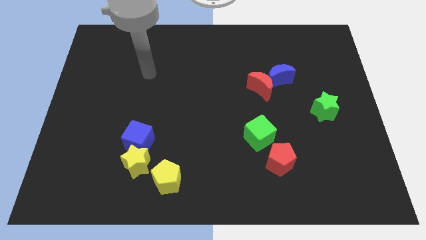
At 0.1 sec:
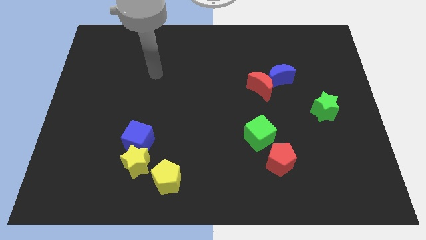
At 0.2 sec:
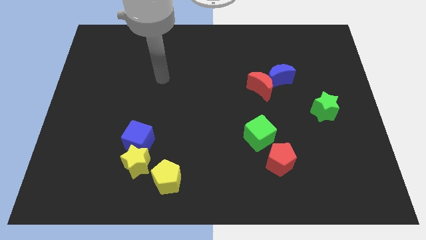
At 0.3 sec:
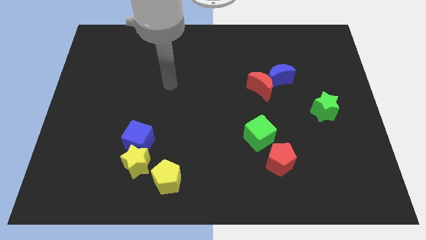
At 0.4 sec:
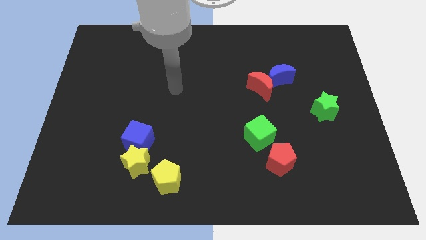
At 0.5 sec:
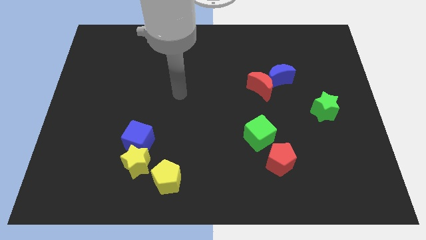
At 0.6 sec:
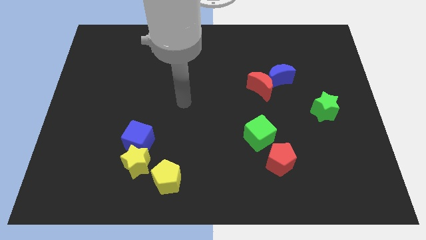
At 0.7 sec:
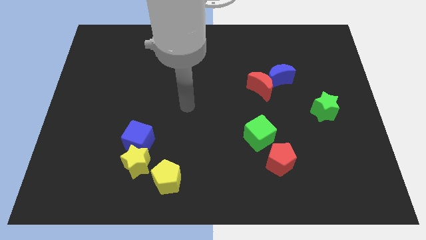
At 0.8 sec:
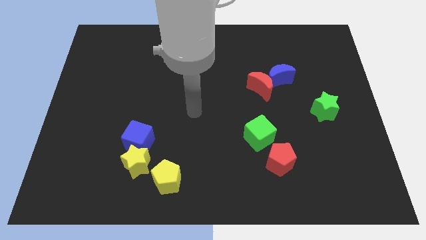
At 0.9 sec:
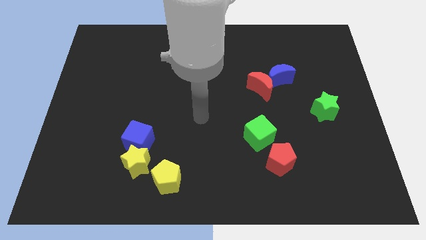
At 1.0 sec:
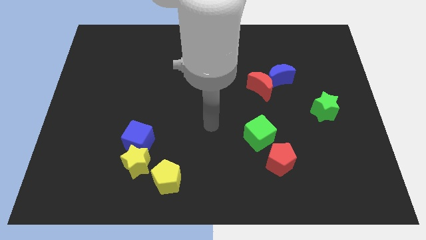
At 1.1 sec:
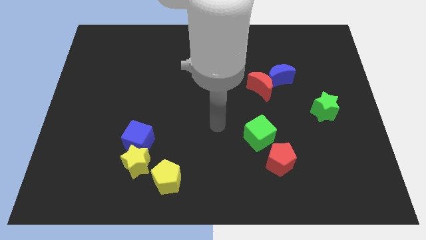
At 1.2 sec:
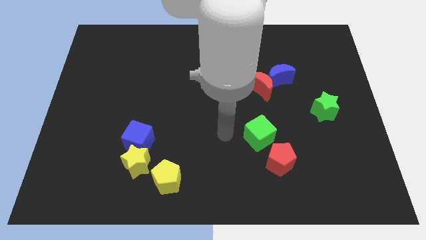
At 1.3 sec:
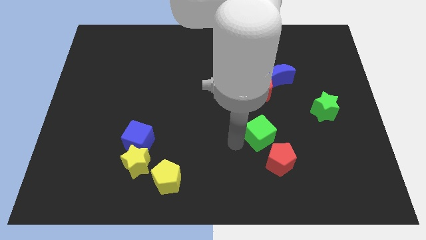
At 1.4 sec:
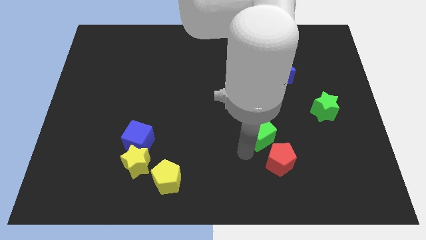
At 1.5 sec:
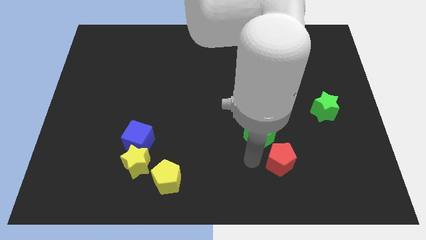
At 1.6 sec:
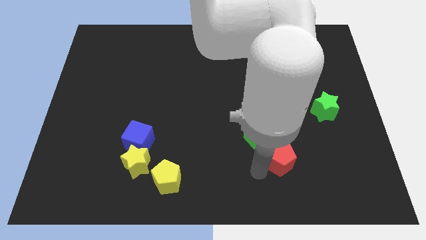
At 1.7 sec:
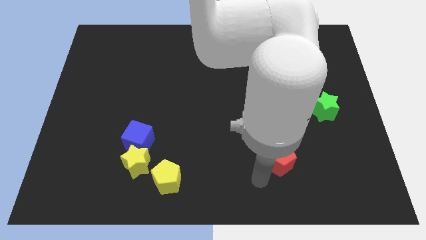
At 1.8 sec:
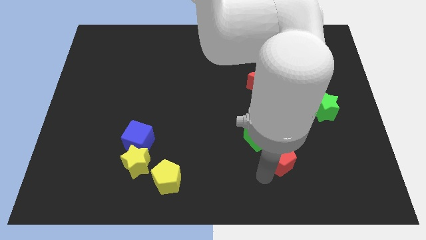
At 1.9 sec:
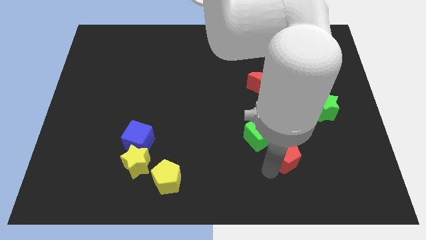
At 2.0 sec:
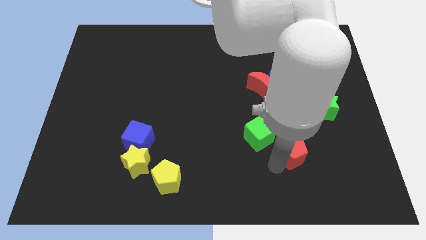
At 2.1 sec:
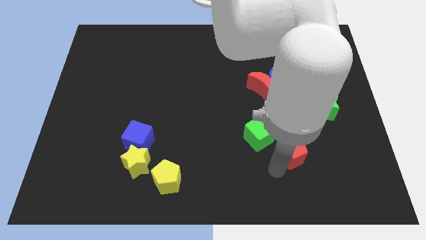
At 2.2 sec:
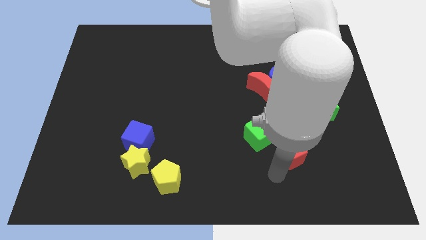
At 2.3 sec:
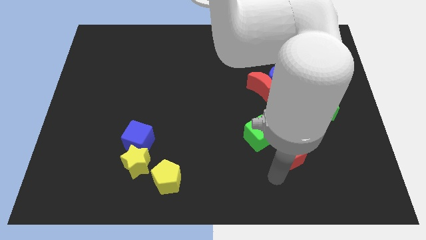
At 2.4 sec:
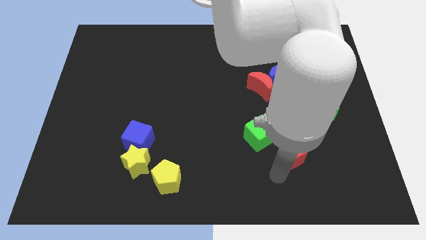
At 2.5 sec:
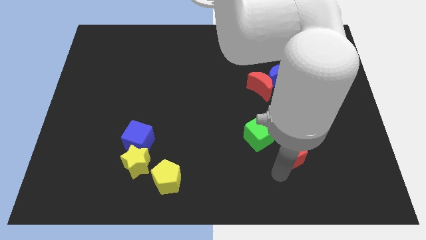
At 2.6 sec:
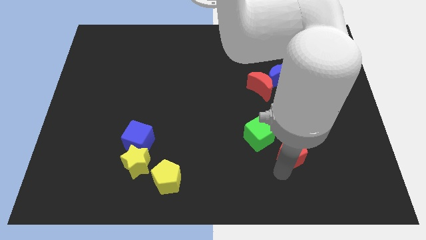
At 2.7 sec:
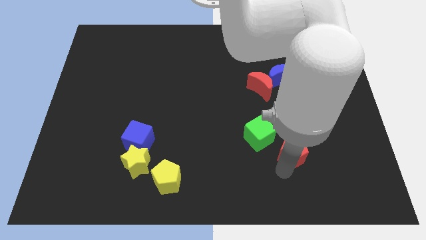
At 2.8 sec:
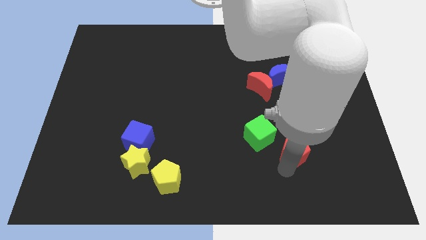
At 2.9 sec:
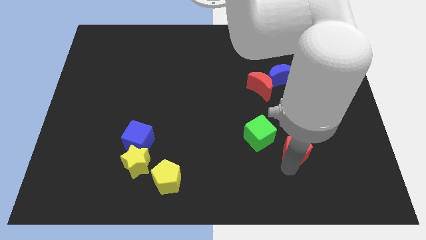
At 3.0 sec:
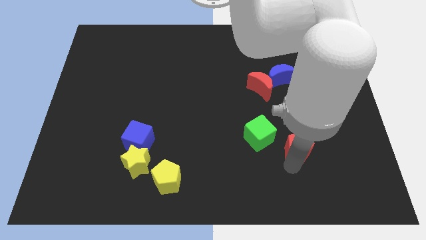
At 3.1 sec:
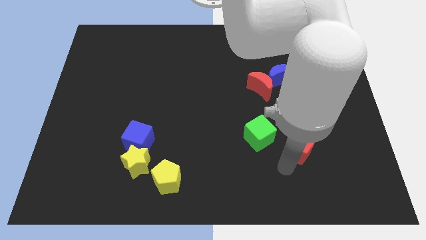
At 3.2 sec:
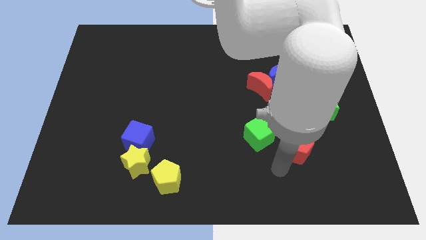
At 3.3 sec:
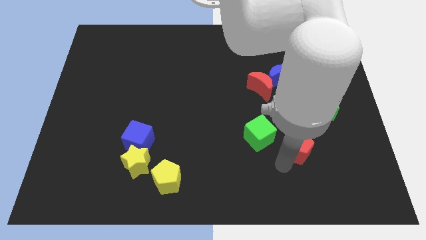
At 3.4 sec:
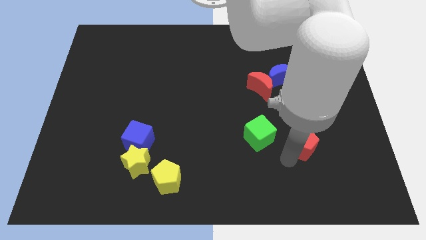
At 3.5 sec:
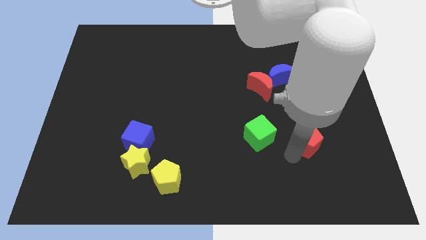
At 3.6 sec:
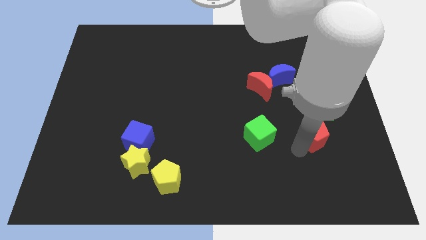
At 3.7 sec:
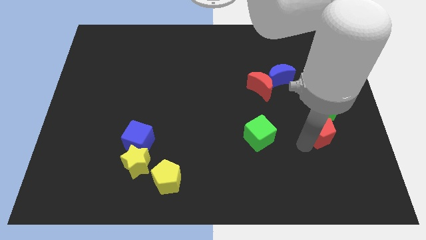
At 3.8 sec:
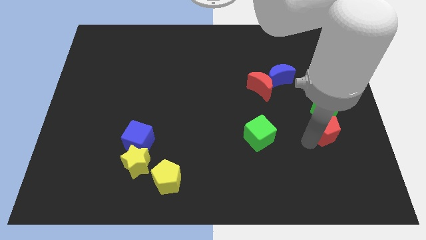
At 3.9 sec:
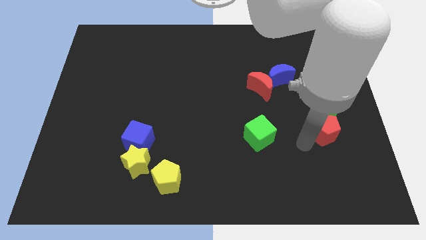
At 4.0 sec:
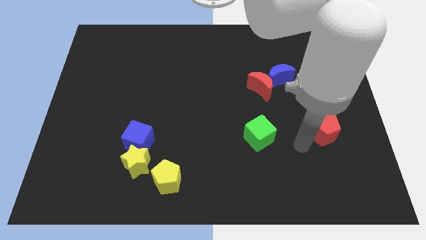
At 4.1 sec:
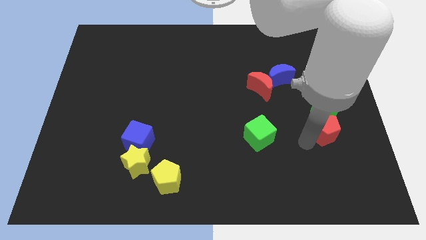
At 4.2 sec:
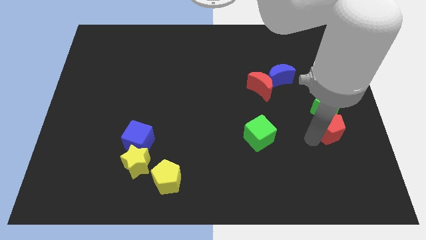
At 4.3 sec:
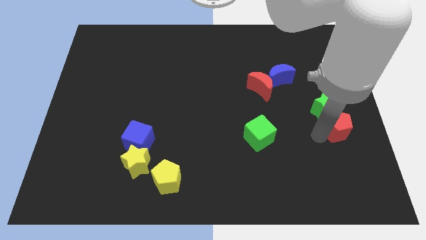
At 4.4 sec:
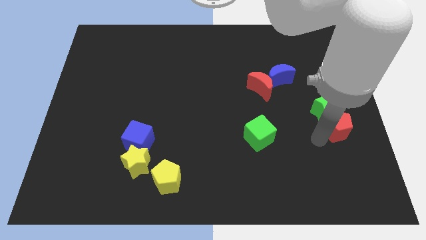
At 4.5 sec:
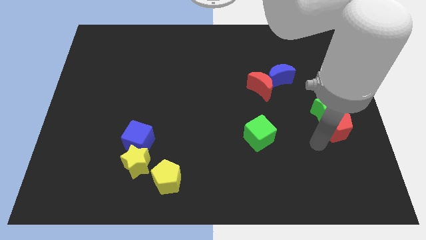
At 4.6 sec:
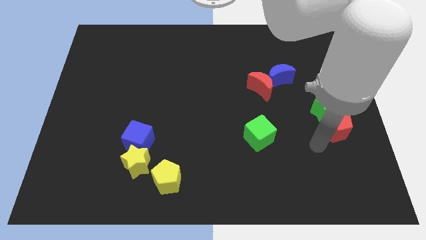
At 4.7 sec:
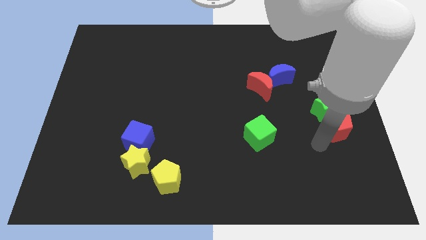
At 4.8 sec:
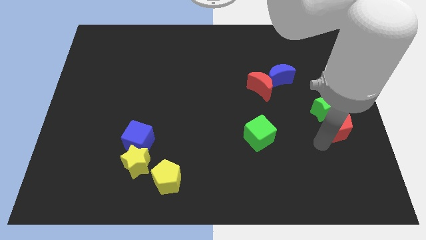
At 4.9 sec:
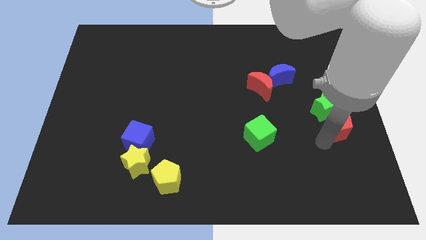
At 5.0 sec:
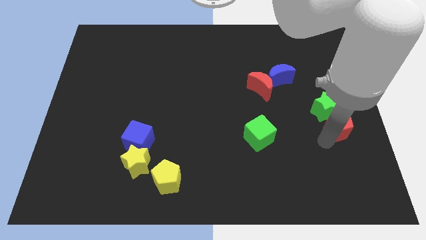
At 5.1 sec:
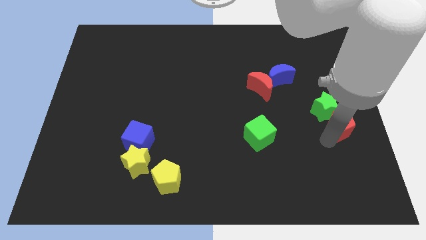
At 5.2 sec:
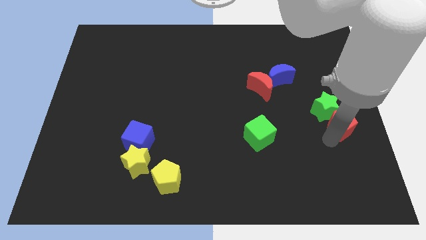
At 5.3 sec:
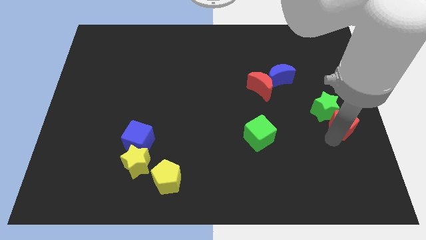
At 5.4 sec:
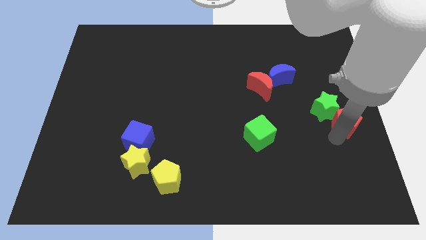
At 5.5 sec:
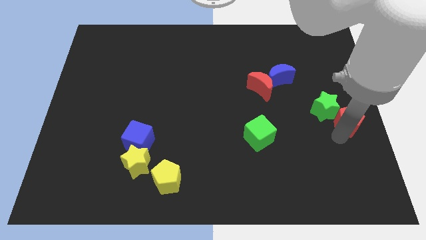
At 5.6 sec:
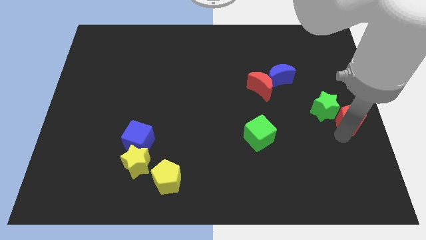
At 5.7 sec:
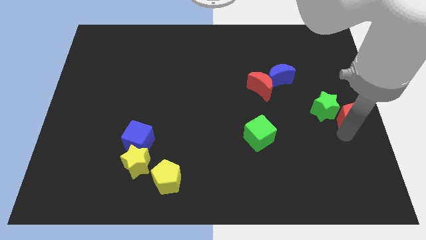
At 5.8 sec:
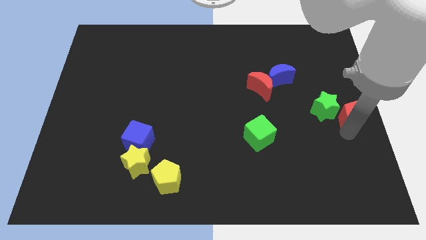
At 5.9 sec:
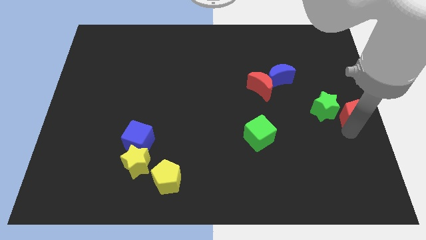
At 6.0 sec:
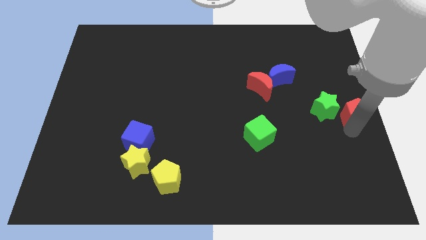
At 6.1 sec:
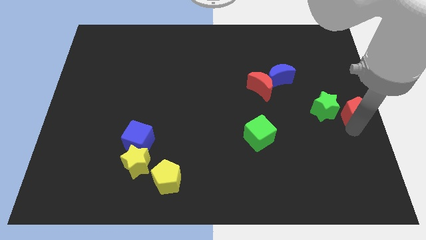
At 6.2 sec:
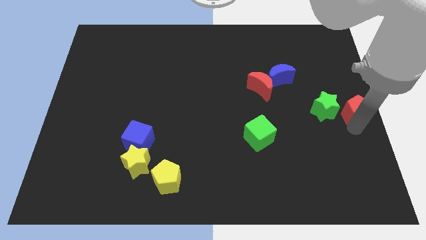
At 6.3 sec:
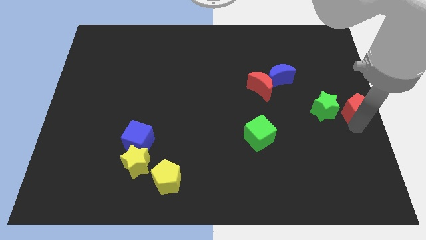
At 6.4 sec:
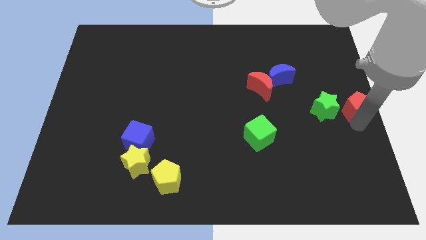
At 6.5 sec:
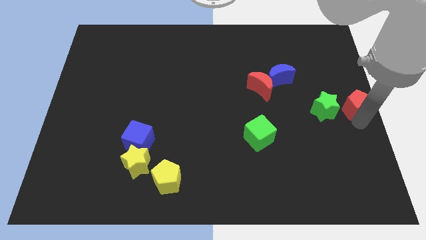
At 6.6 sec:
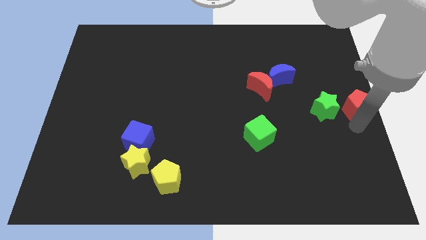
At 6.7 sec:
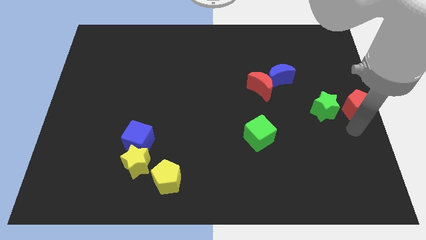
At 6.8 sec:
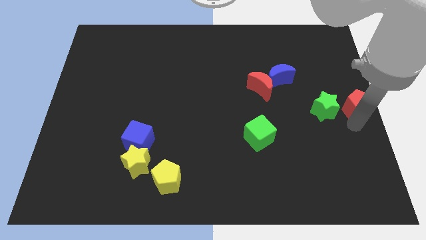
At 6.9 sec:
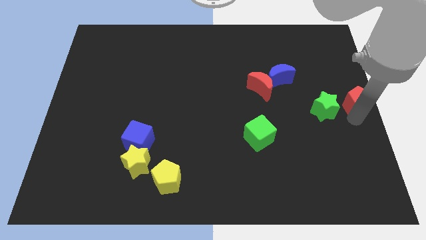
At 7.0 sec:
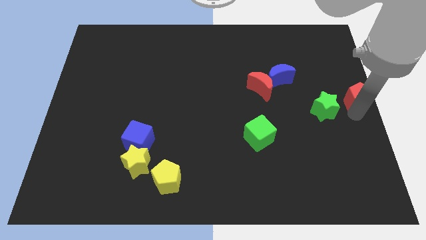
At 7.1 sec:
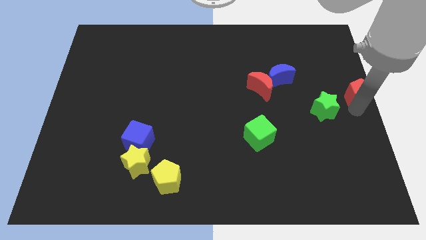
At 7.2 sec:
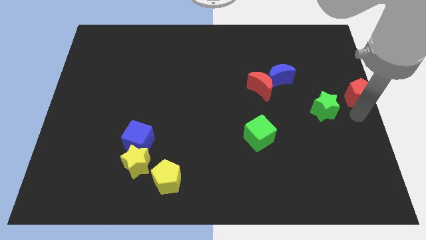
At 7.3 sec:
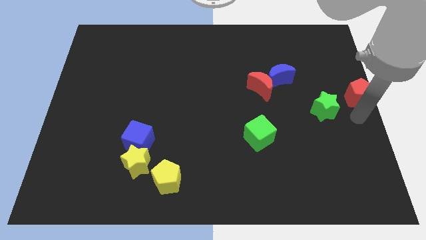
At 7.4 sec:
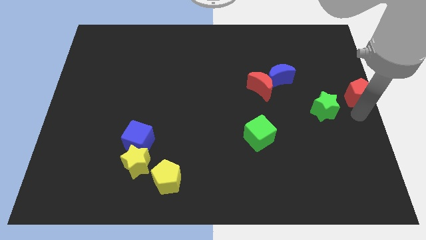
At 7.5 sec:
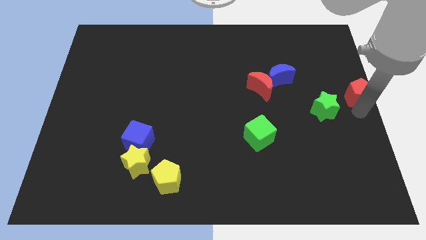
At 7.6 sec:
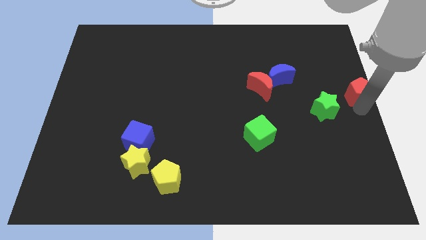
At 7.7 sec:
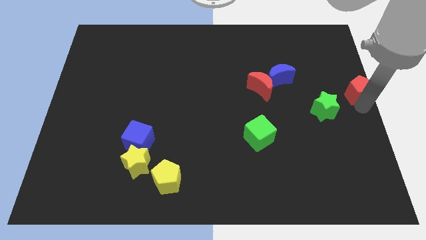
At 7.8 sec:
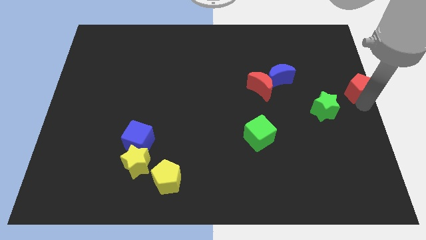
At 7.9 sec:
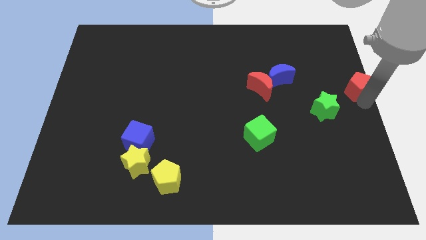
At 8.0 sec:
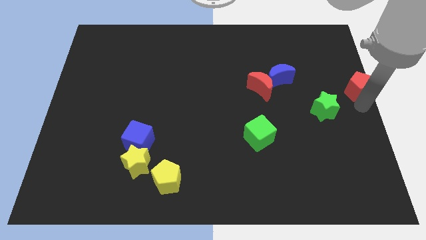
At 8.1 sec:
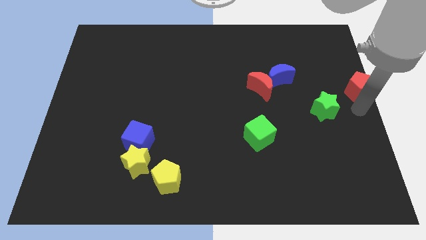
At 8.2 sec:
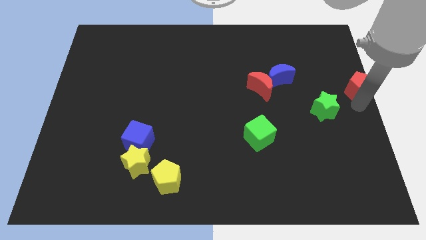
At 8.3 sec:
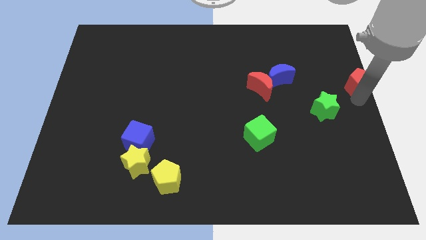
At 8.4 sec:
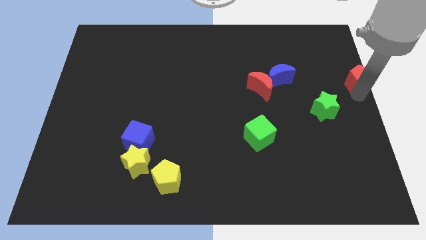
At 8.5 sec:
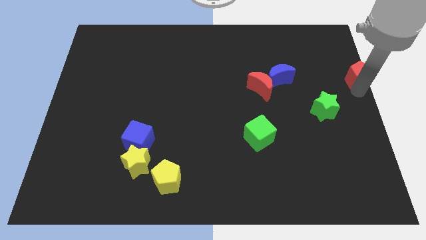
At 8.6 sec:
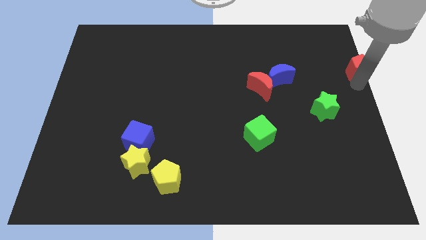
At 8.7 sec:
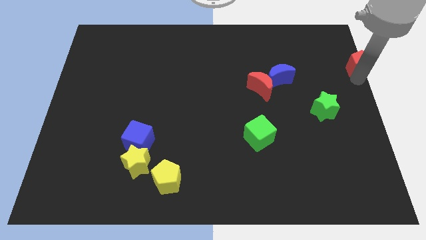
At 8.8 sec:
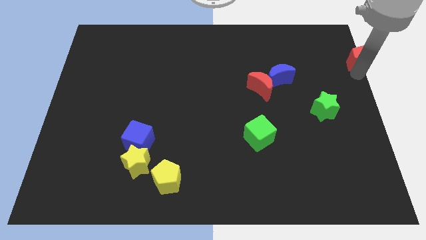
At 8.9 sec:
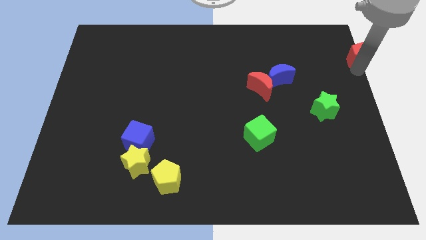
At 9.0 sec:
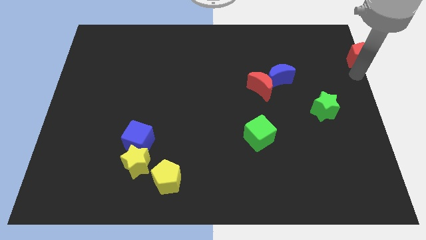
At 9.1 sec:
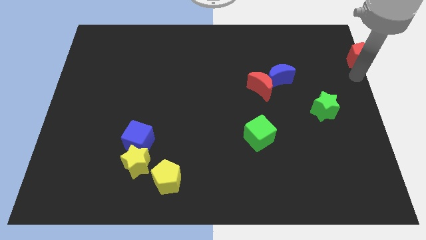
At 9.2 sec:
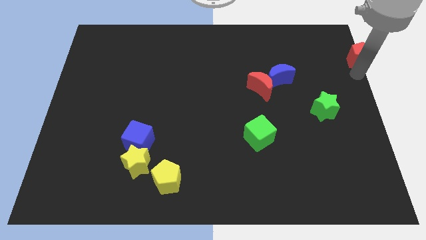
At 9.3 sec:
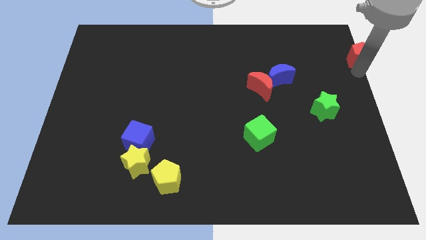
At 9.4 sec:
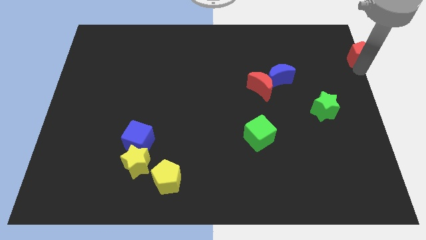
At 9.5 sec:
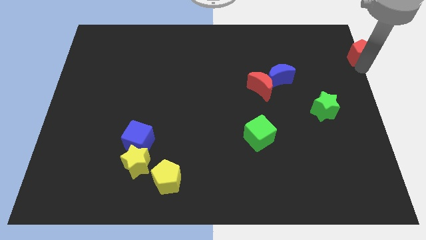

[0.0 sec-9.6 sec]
move the red pentagon to the top right
